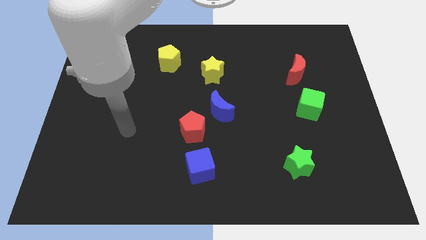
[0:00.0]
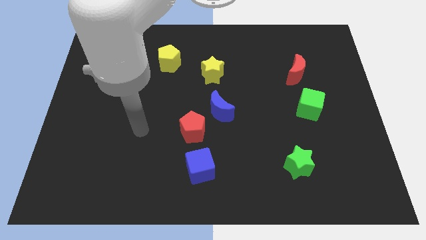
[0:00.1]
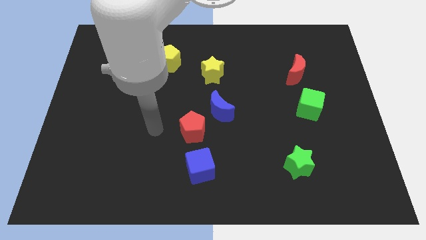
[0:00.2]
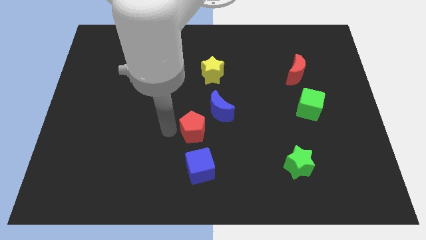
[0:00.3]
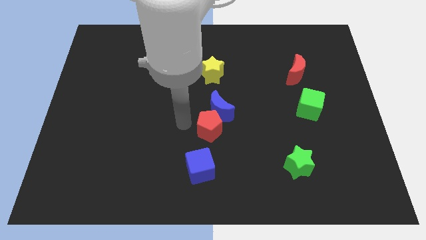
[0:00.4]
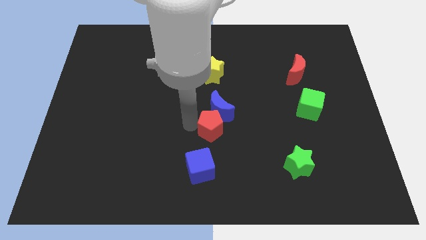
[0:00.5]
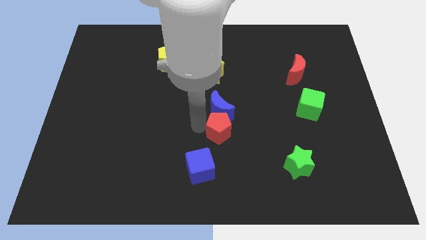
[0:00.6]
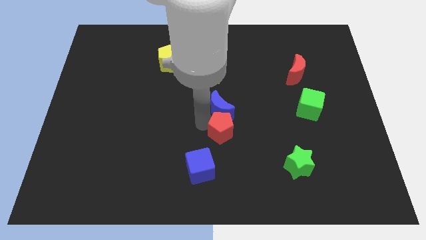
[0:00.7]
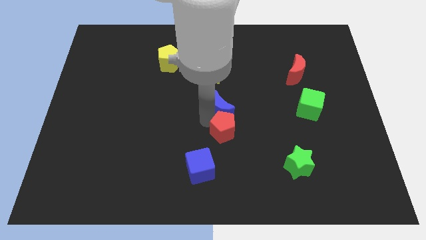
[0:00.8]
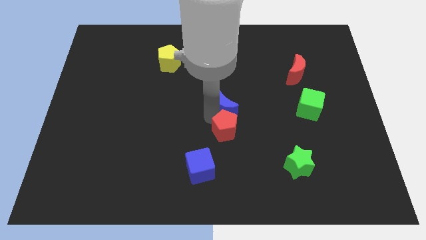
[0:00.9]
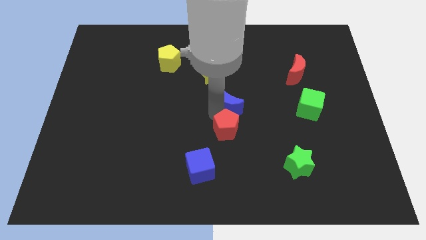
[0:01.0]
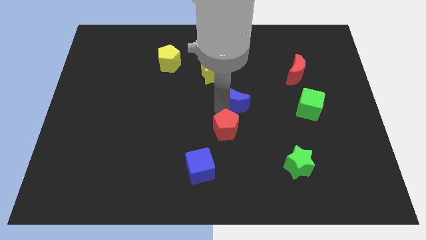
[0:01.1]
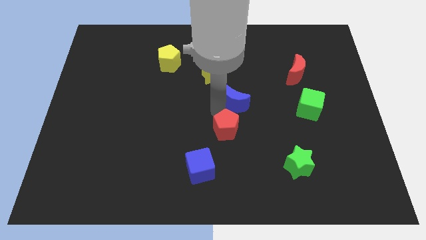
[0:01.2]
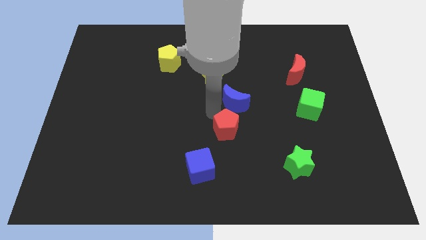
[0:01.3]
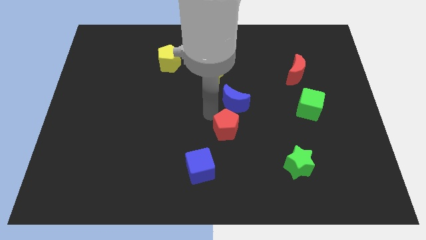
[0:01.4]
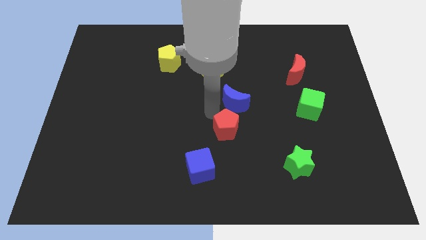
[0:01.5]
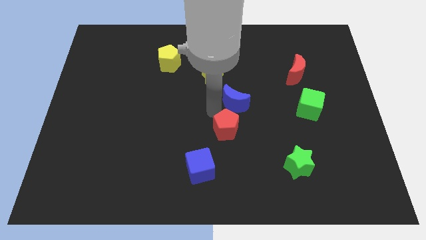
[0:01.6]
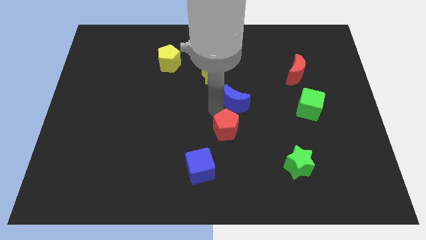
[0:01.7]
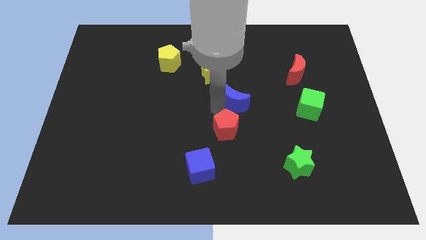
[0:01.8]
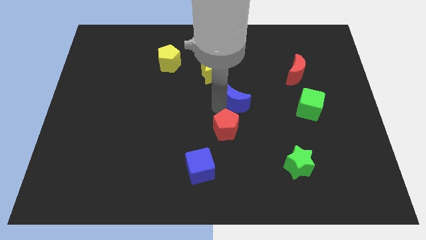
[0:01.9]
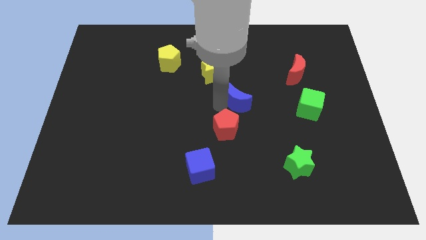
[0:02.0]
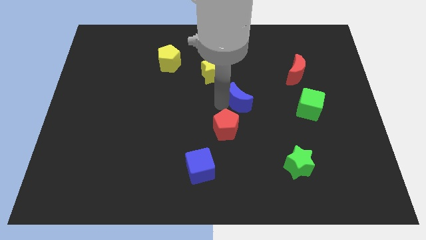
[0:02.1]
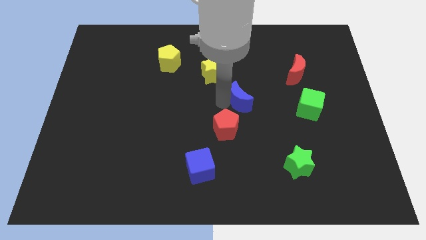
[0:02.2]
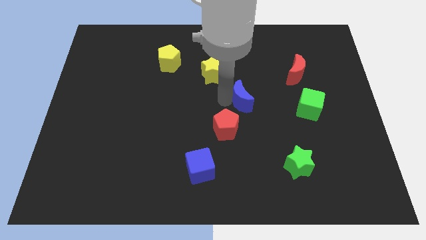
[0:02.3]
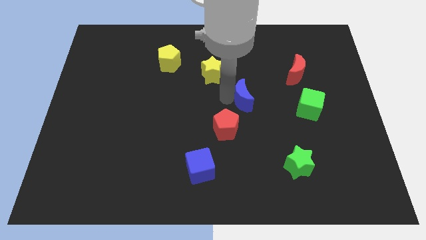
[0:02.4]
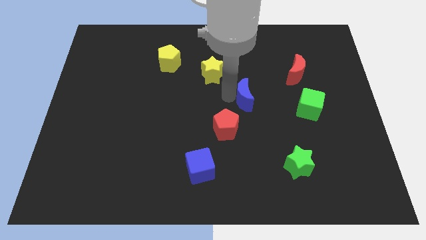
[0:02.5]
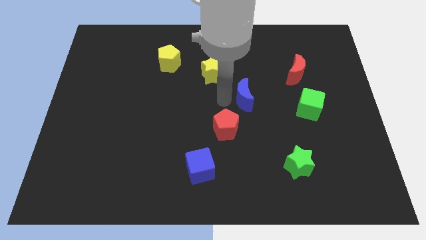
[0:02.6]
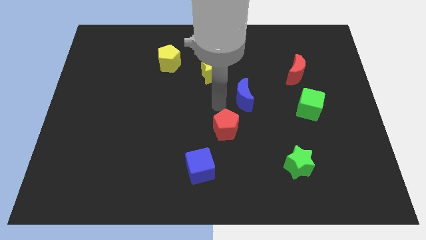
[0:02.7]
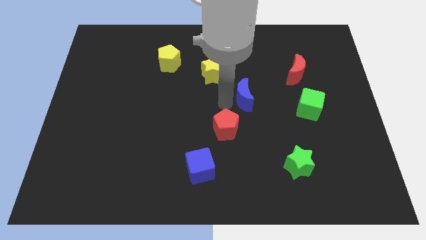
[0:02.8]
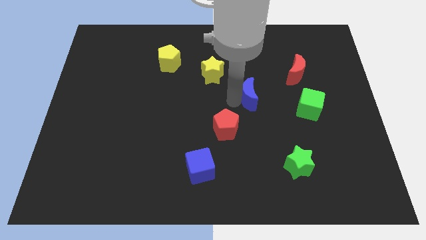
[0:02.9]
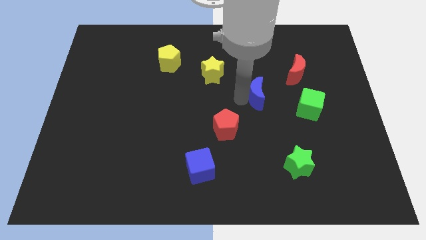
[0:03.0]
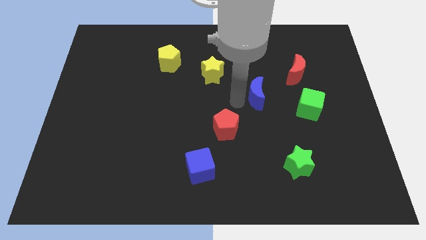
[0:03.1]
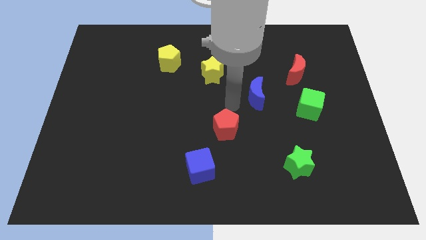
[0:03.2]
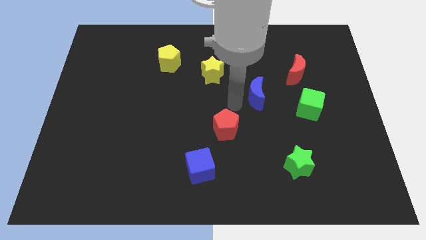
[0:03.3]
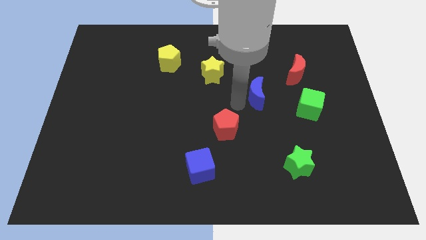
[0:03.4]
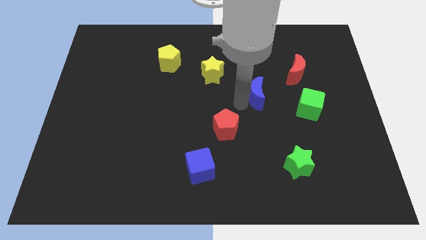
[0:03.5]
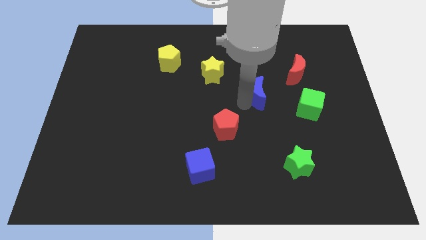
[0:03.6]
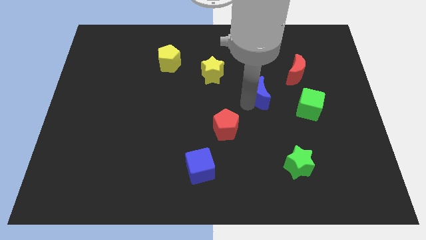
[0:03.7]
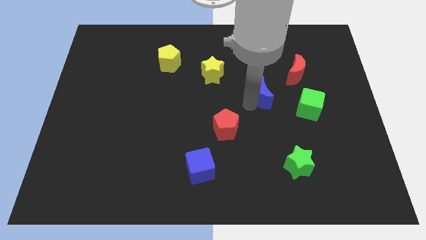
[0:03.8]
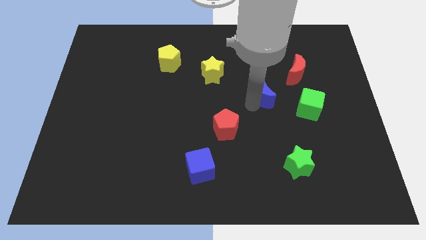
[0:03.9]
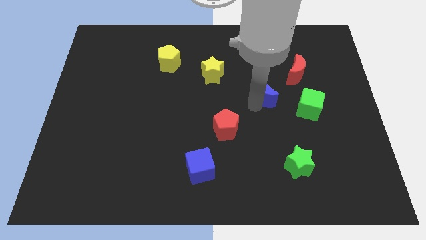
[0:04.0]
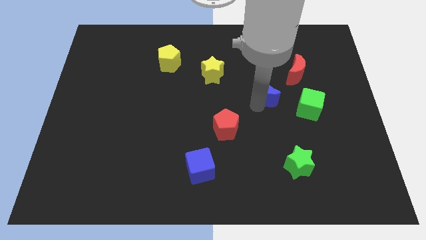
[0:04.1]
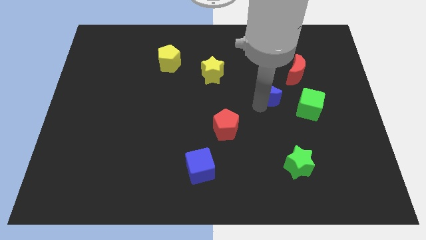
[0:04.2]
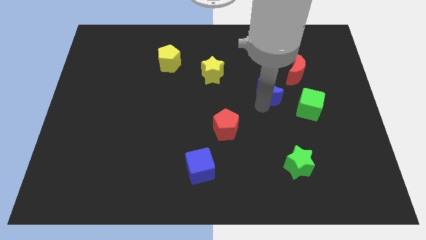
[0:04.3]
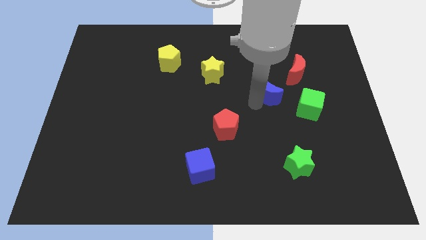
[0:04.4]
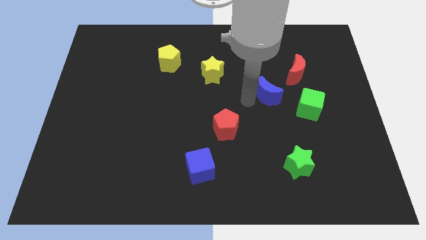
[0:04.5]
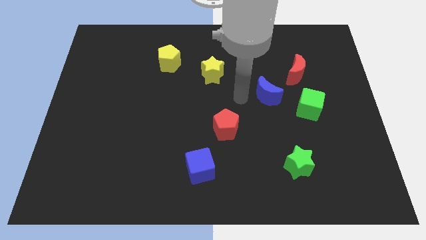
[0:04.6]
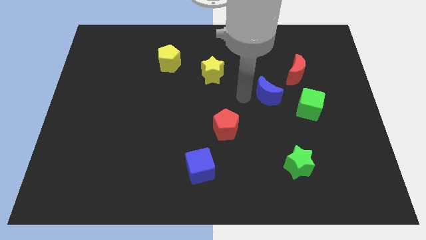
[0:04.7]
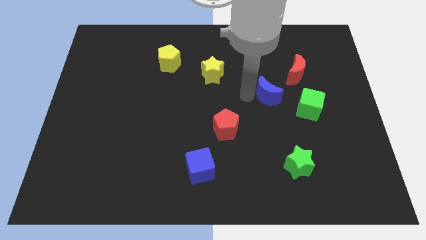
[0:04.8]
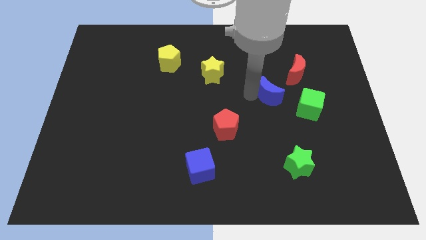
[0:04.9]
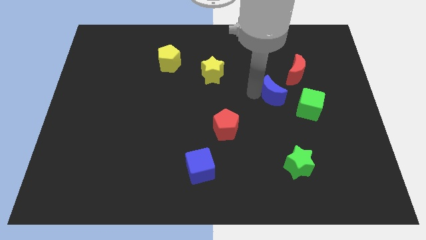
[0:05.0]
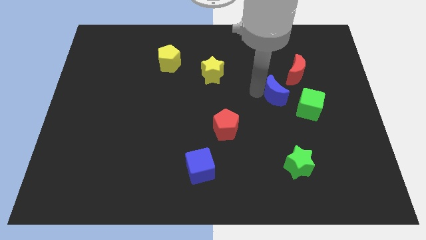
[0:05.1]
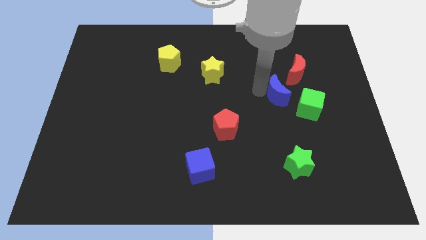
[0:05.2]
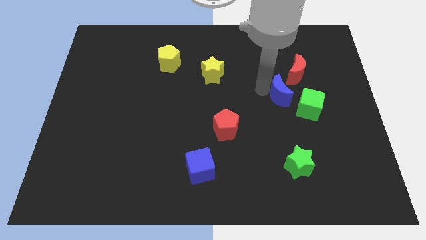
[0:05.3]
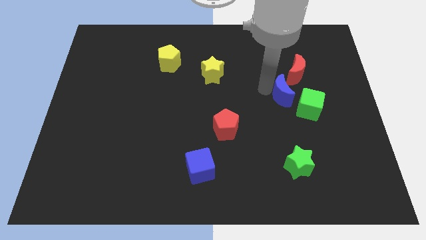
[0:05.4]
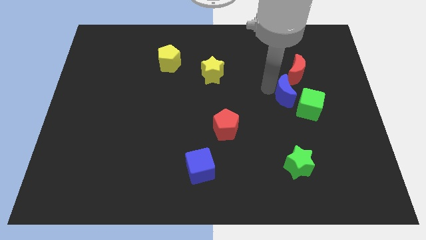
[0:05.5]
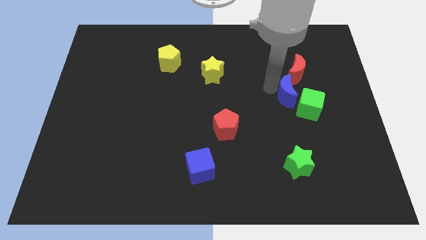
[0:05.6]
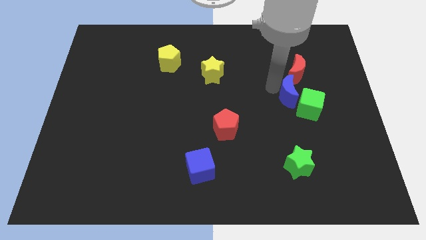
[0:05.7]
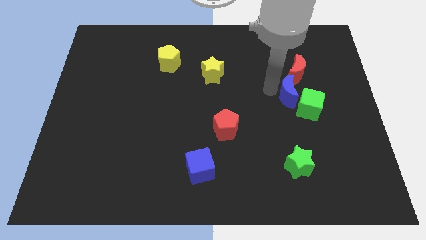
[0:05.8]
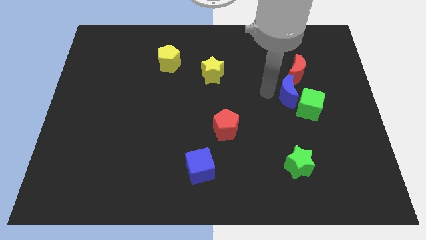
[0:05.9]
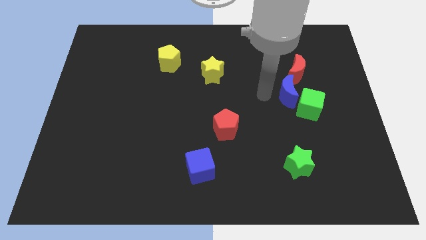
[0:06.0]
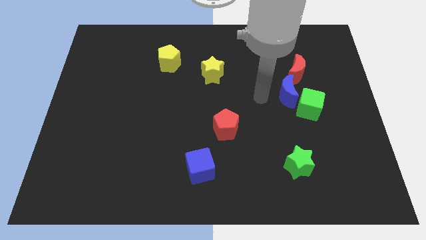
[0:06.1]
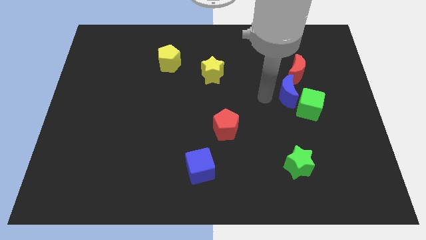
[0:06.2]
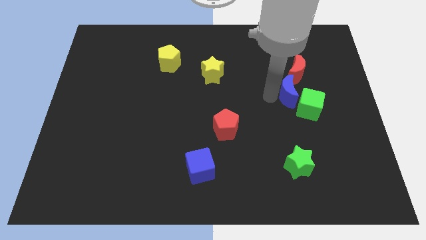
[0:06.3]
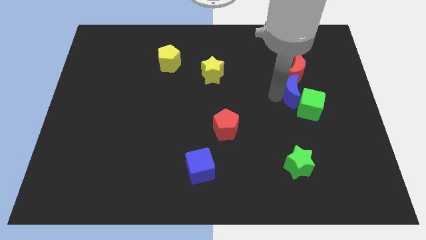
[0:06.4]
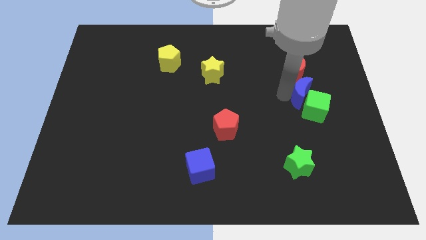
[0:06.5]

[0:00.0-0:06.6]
push the blue moon diagonally down and to the right of the red moon
